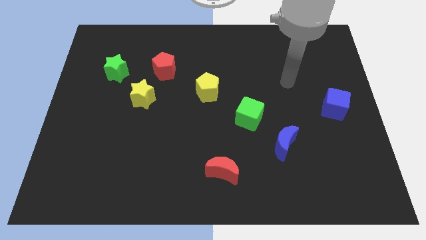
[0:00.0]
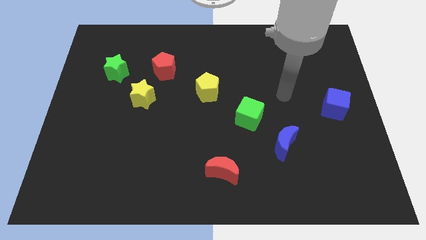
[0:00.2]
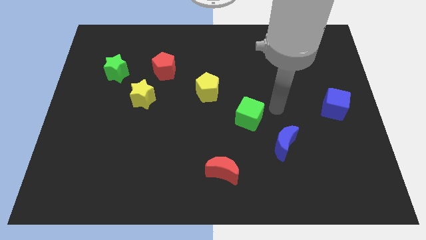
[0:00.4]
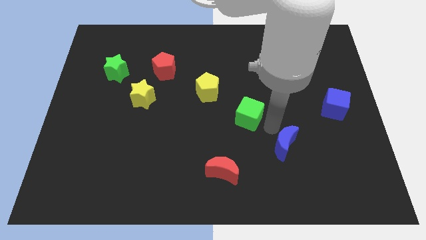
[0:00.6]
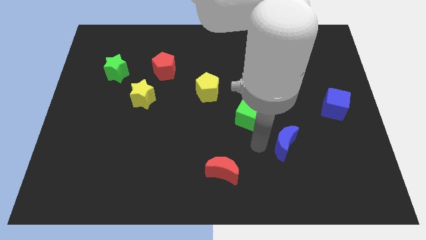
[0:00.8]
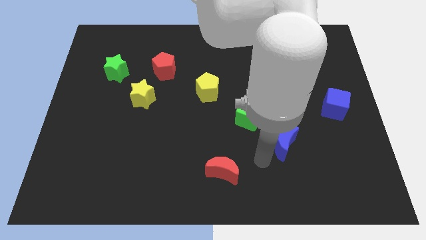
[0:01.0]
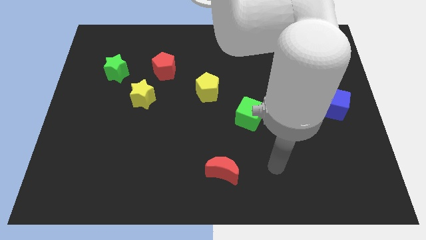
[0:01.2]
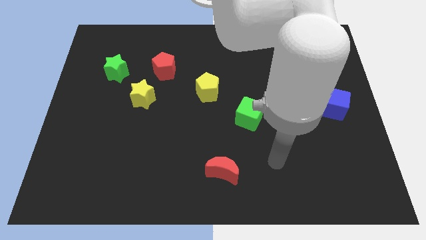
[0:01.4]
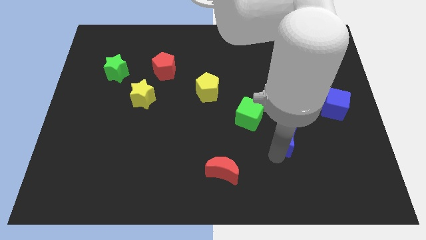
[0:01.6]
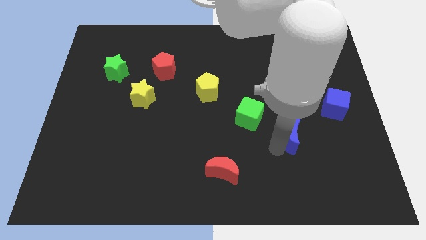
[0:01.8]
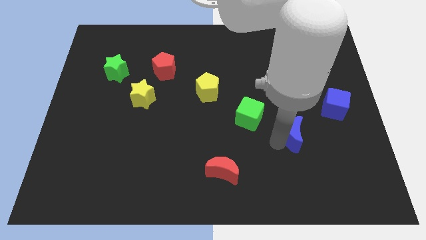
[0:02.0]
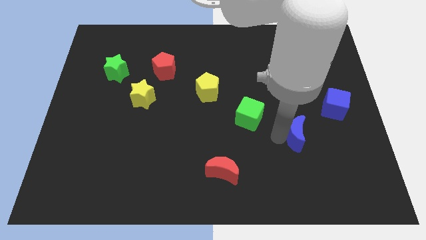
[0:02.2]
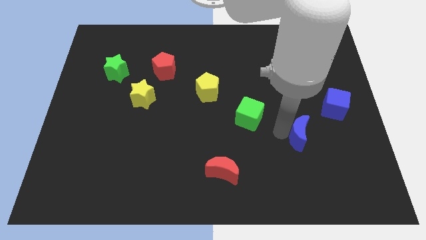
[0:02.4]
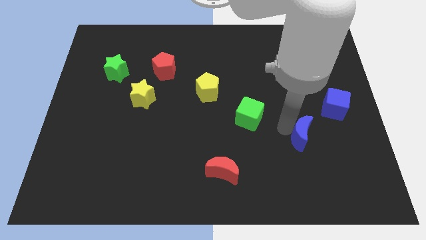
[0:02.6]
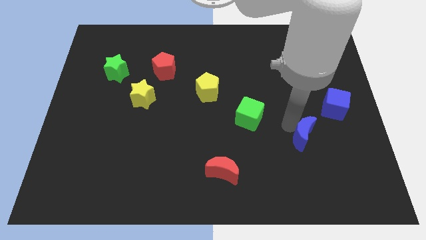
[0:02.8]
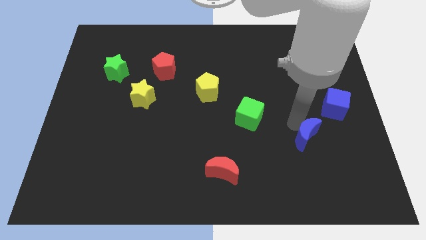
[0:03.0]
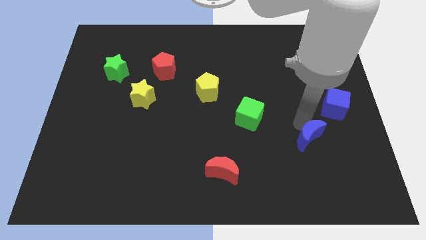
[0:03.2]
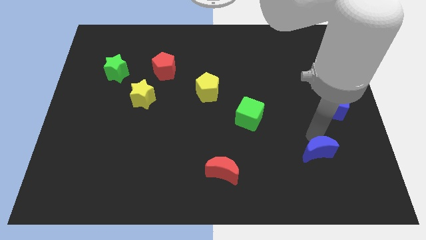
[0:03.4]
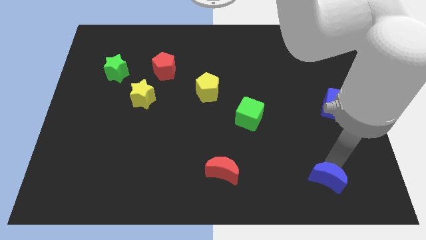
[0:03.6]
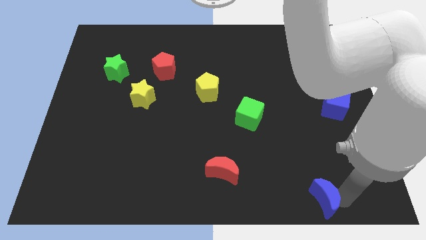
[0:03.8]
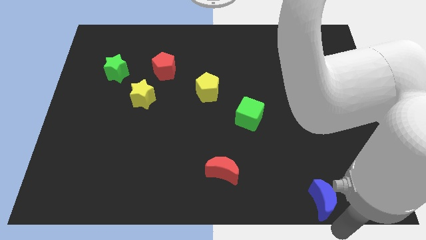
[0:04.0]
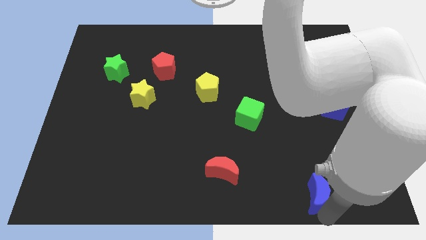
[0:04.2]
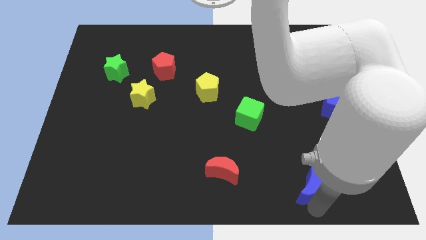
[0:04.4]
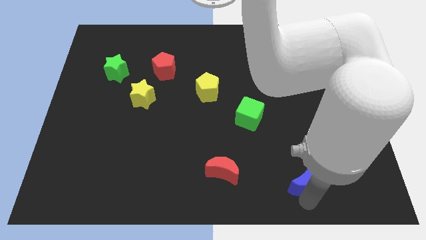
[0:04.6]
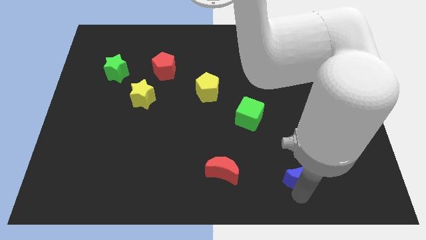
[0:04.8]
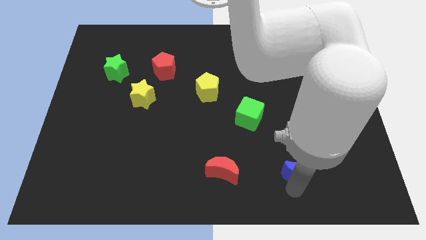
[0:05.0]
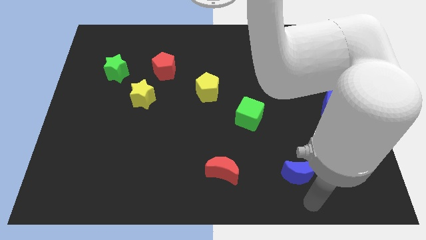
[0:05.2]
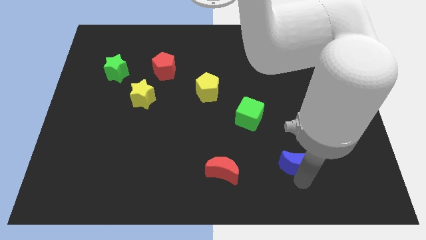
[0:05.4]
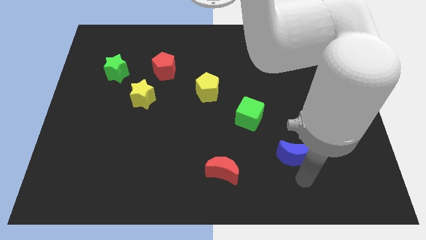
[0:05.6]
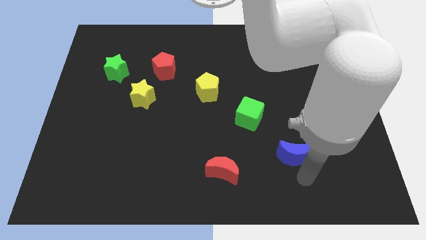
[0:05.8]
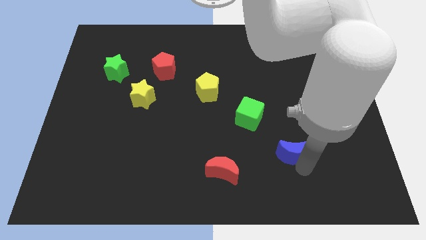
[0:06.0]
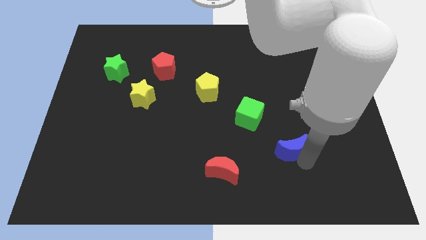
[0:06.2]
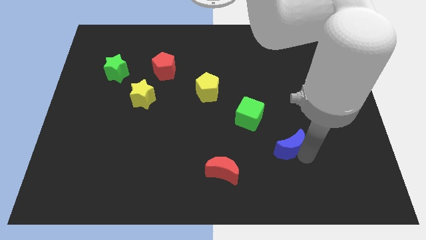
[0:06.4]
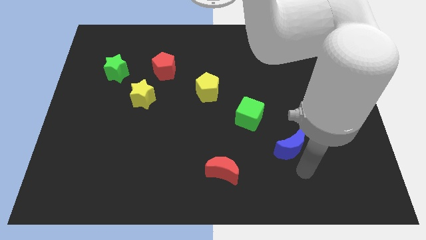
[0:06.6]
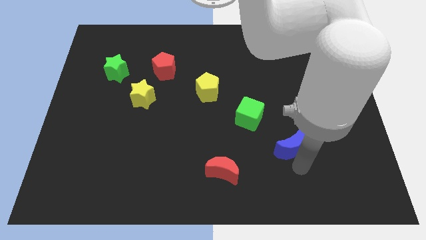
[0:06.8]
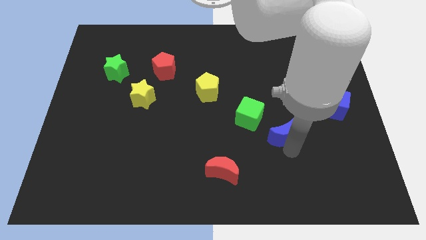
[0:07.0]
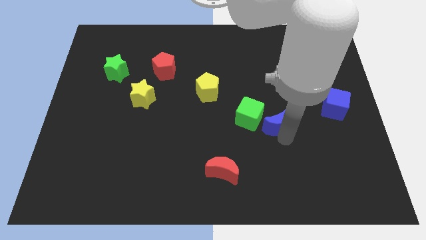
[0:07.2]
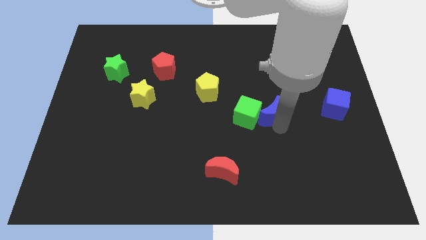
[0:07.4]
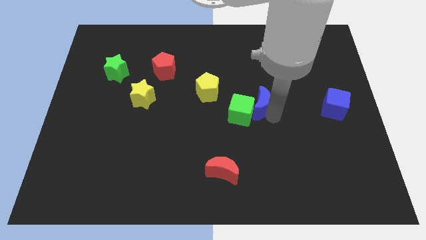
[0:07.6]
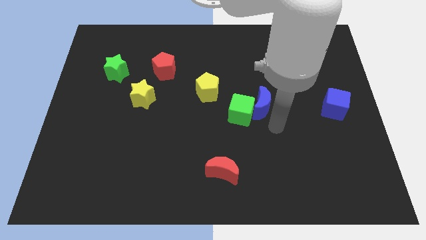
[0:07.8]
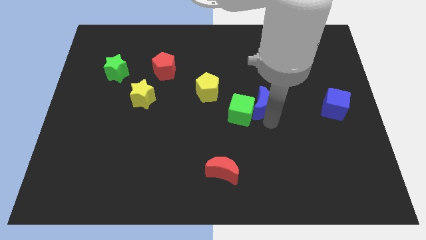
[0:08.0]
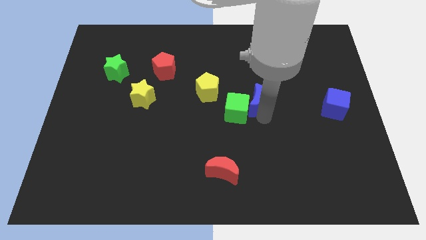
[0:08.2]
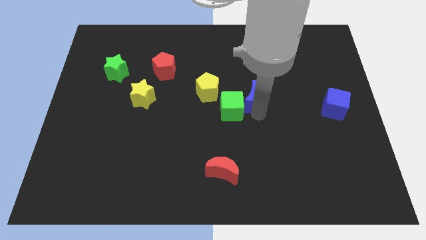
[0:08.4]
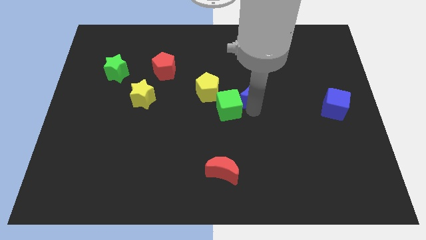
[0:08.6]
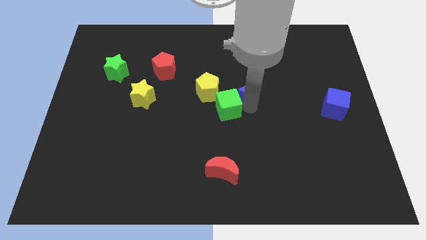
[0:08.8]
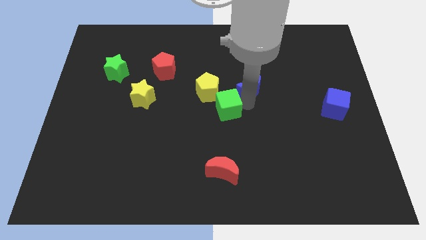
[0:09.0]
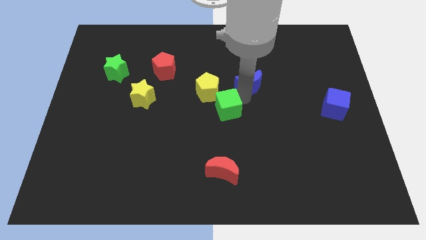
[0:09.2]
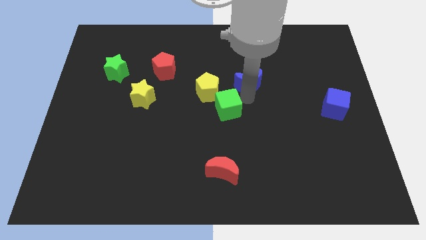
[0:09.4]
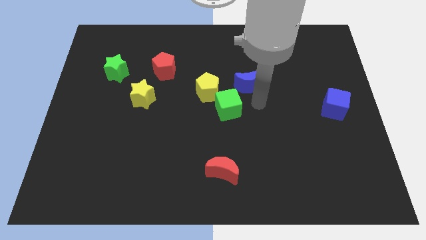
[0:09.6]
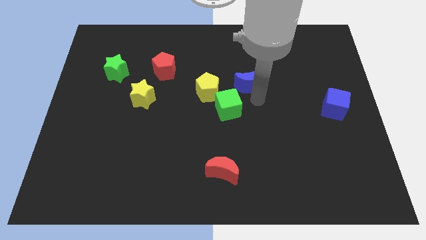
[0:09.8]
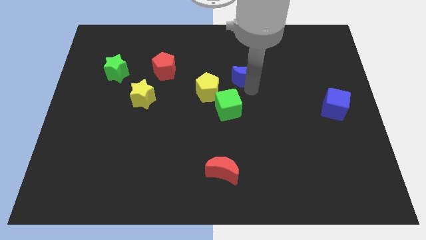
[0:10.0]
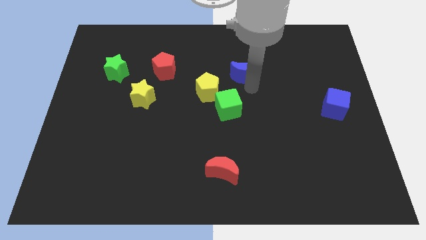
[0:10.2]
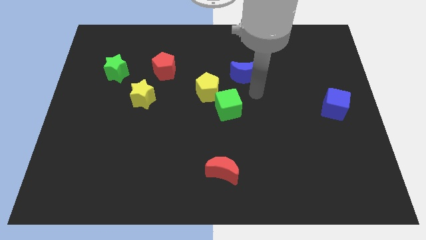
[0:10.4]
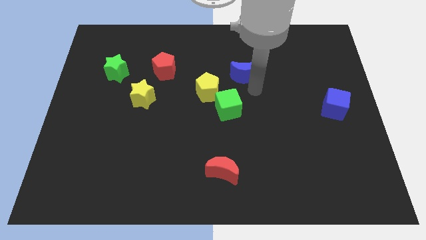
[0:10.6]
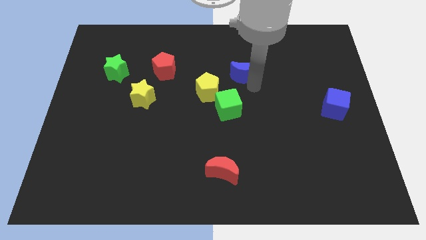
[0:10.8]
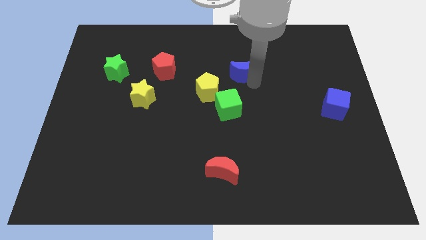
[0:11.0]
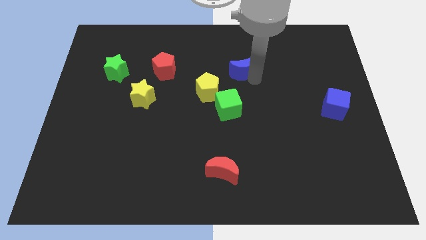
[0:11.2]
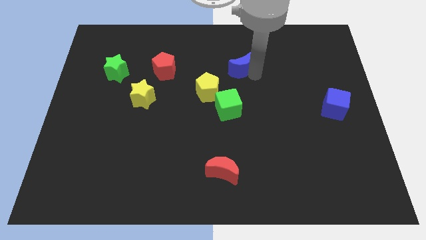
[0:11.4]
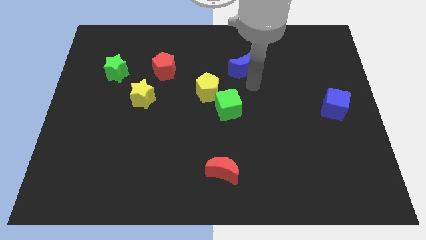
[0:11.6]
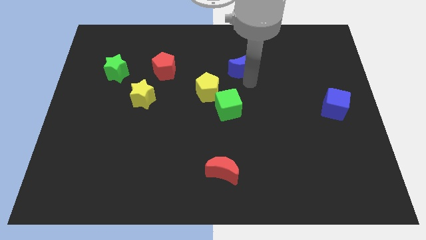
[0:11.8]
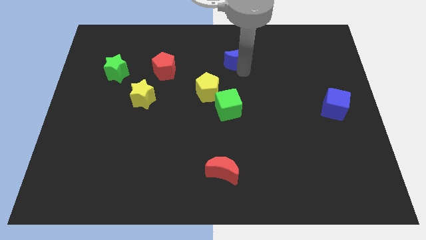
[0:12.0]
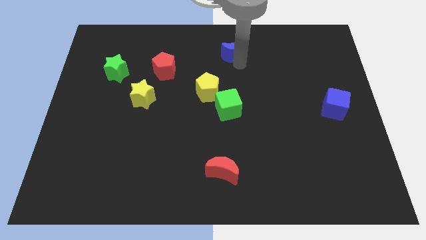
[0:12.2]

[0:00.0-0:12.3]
move the blue moon to the towards your base

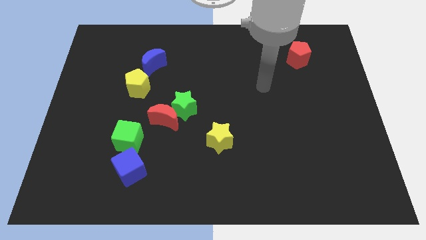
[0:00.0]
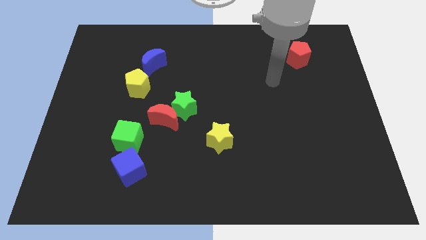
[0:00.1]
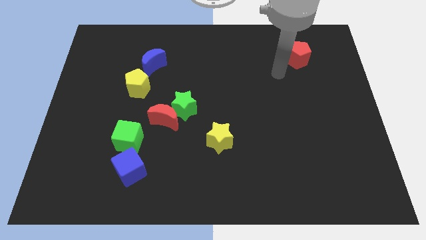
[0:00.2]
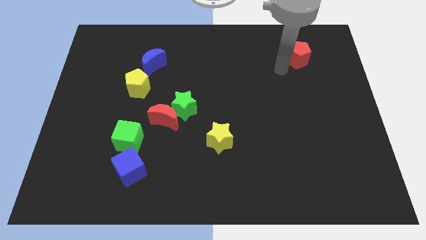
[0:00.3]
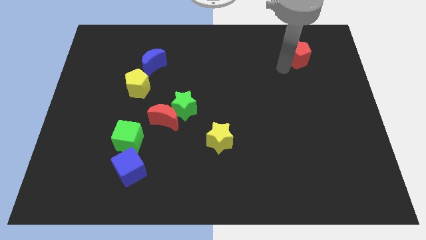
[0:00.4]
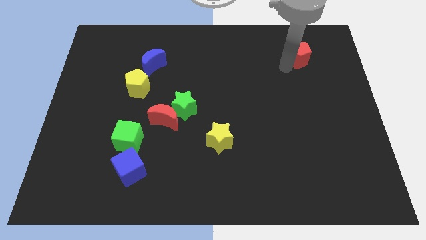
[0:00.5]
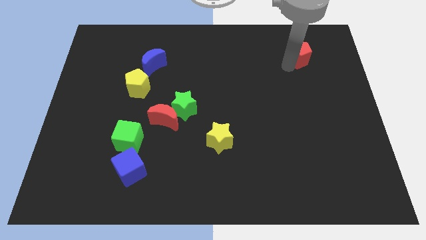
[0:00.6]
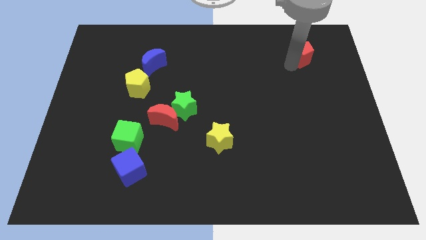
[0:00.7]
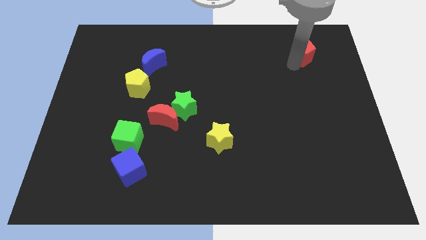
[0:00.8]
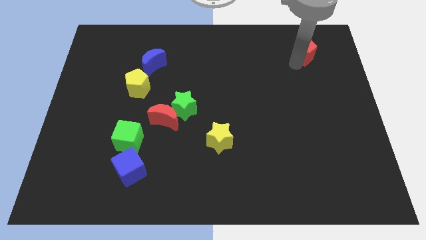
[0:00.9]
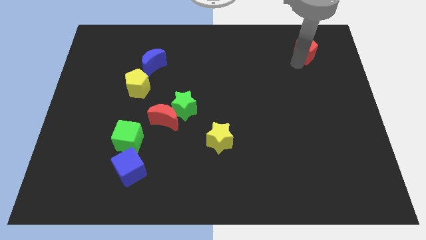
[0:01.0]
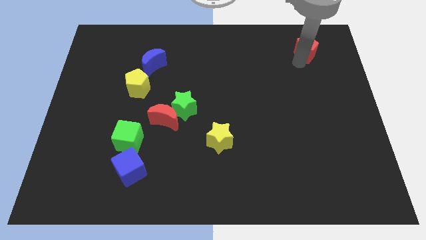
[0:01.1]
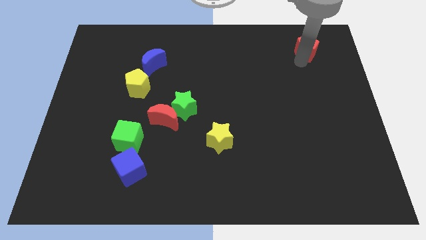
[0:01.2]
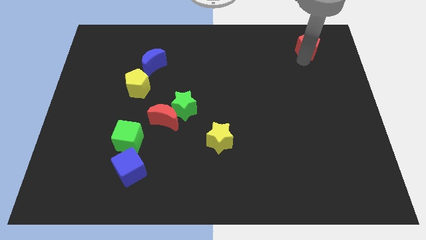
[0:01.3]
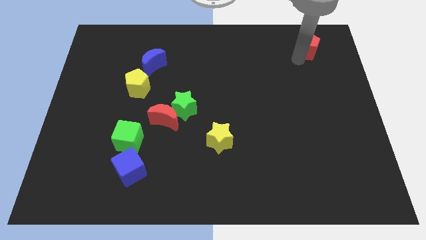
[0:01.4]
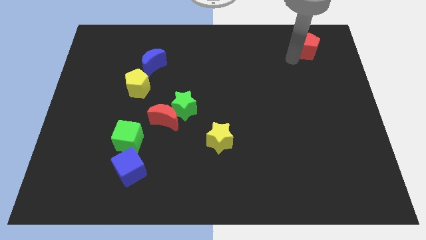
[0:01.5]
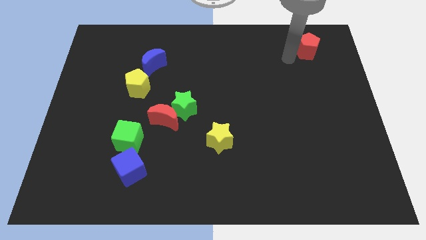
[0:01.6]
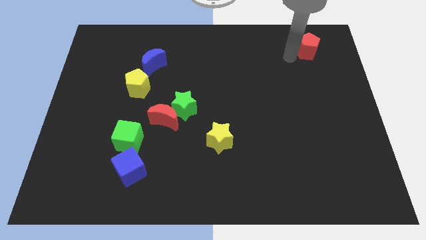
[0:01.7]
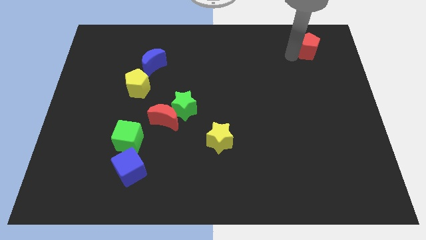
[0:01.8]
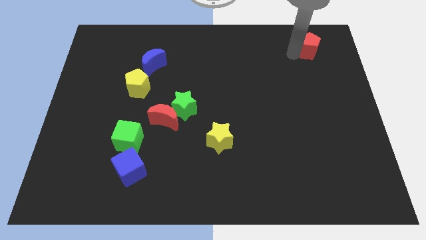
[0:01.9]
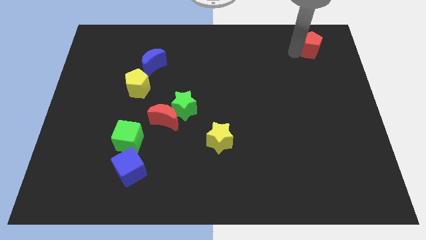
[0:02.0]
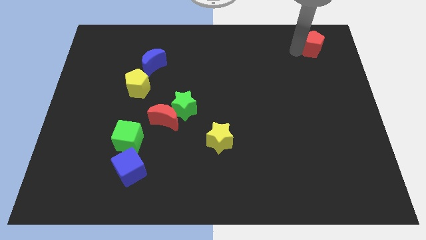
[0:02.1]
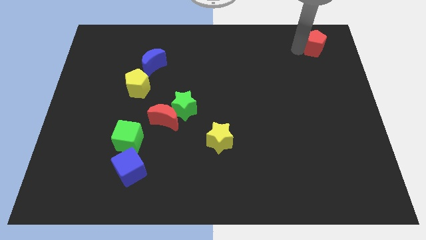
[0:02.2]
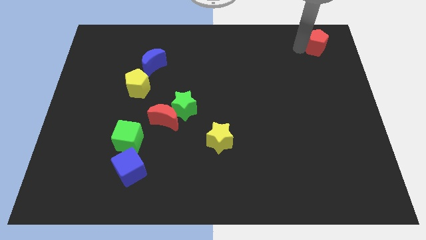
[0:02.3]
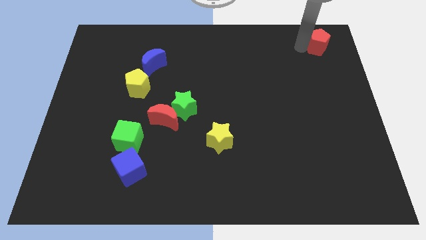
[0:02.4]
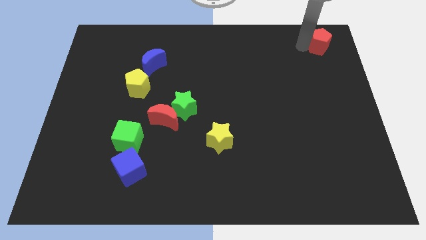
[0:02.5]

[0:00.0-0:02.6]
push the red pentagon to the top right of the board
